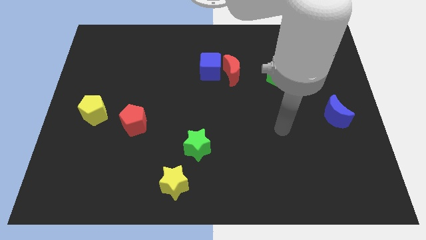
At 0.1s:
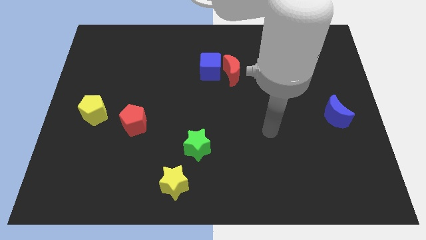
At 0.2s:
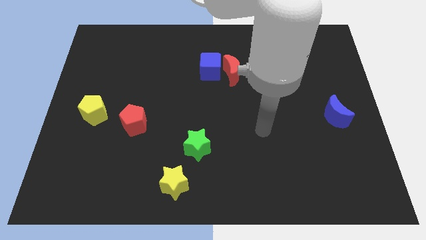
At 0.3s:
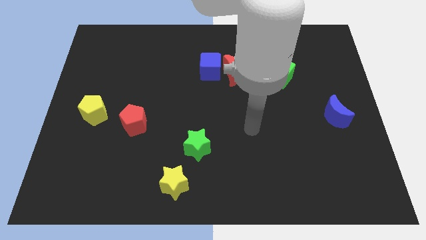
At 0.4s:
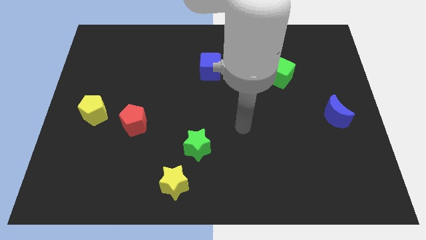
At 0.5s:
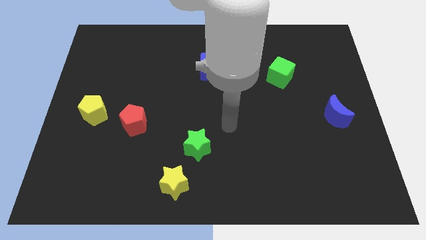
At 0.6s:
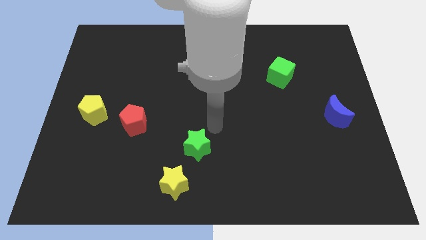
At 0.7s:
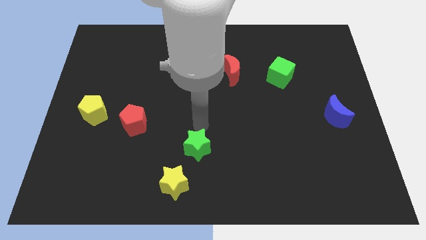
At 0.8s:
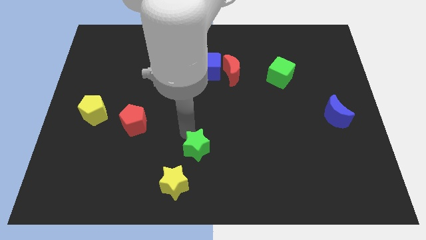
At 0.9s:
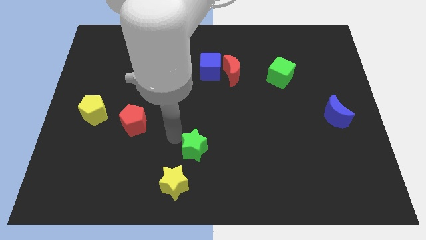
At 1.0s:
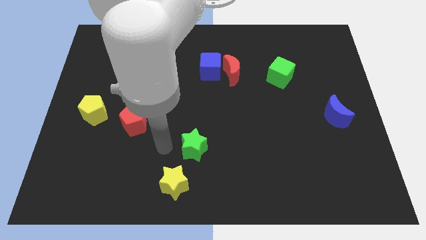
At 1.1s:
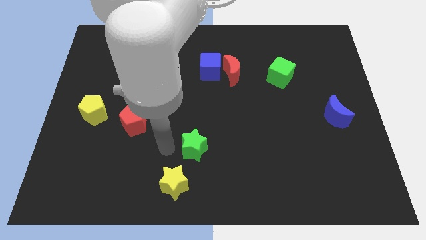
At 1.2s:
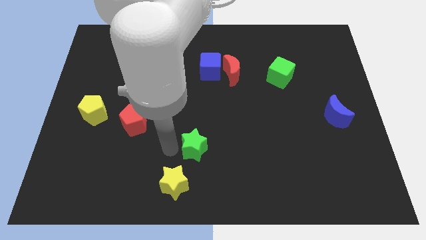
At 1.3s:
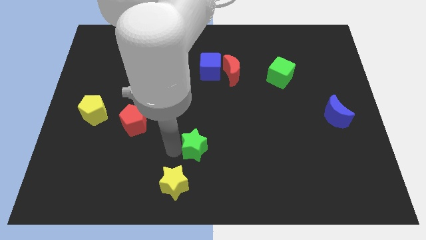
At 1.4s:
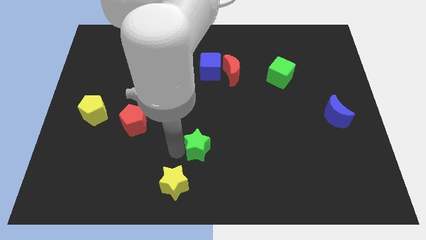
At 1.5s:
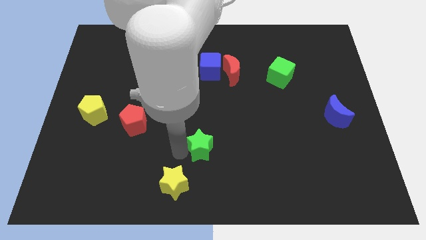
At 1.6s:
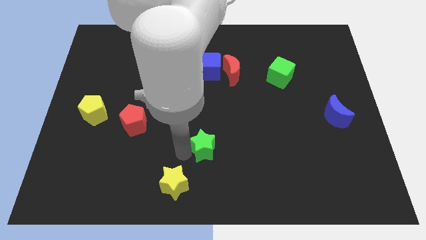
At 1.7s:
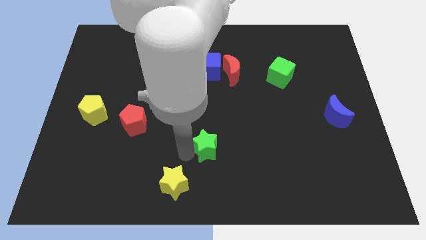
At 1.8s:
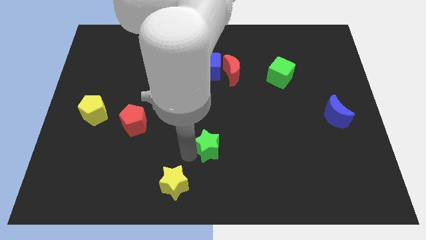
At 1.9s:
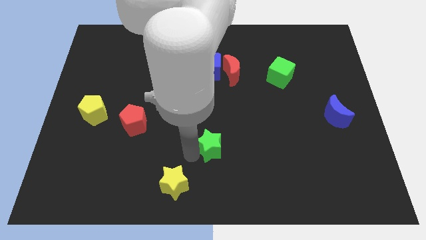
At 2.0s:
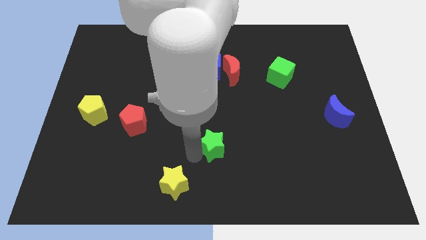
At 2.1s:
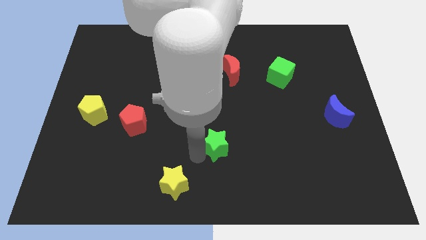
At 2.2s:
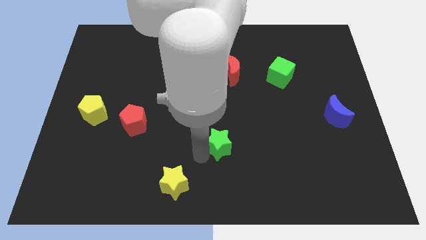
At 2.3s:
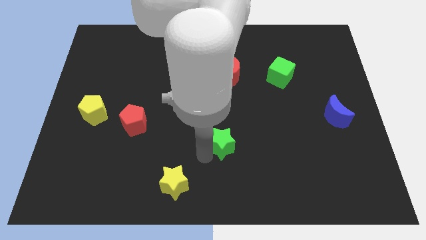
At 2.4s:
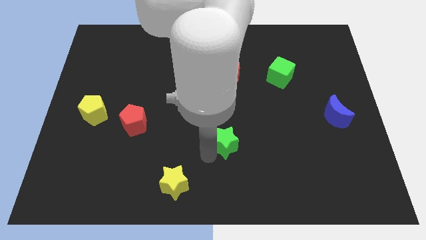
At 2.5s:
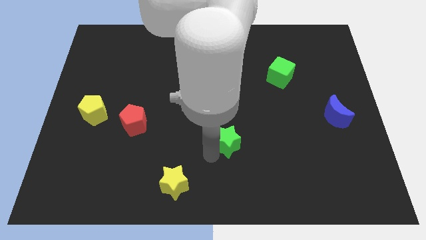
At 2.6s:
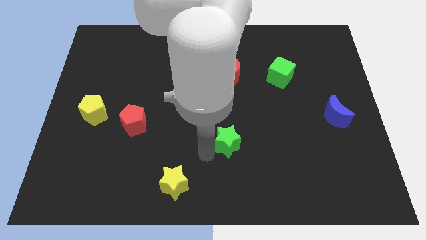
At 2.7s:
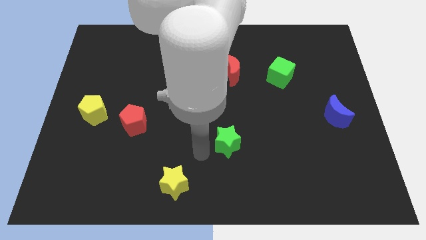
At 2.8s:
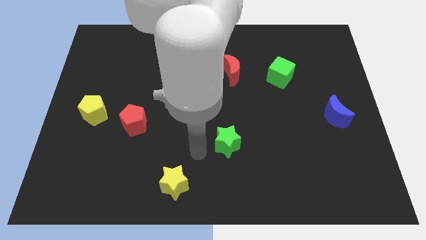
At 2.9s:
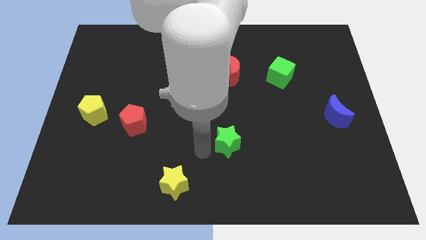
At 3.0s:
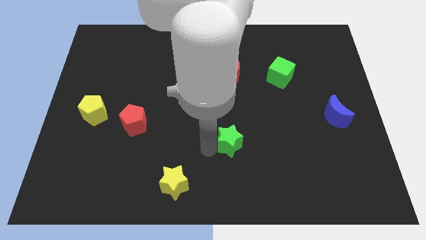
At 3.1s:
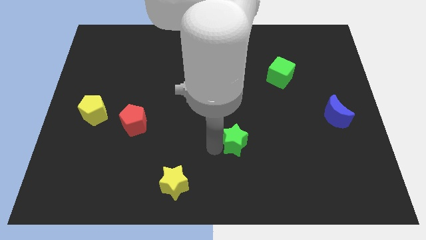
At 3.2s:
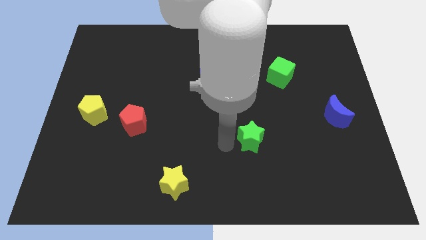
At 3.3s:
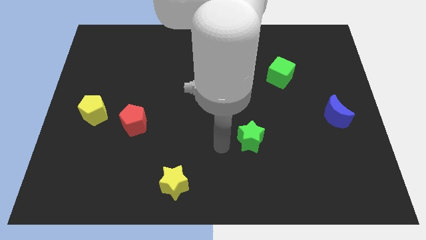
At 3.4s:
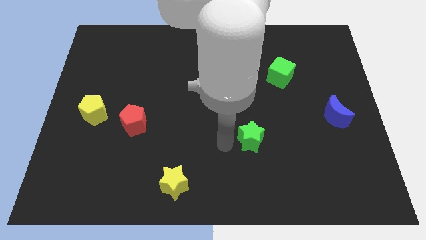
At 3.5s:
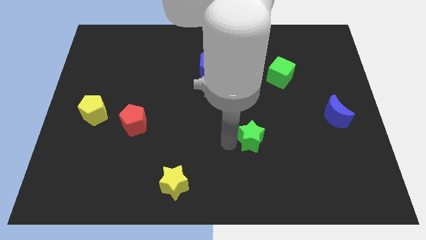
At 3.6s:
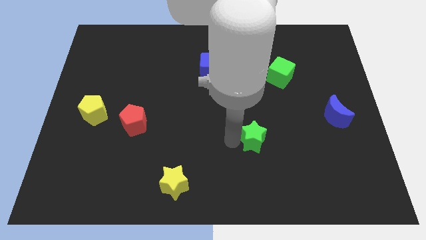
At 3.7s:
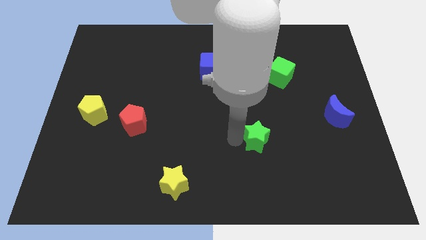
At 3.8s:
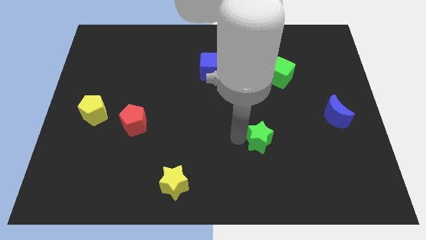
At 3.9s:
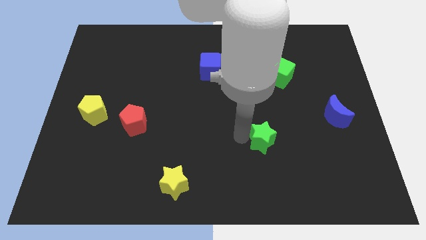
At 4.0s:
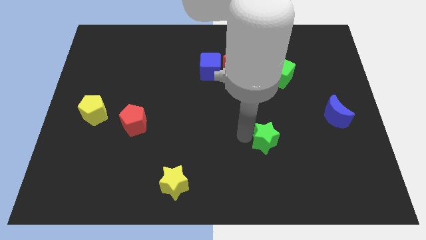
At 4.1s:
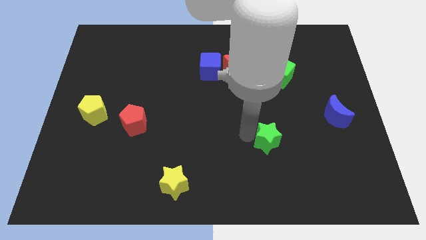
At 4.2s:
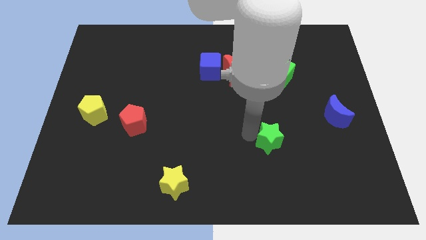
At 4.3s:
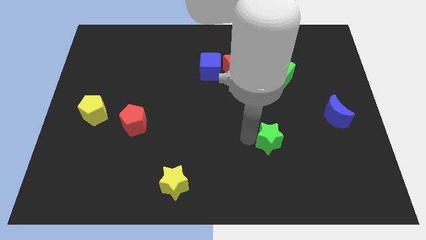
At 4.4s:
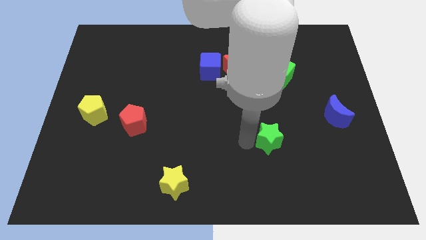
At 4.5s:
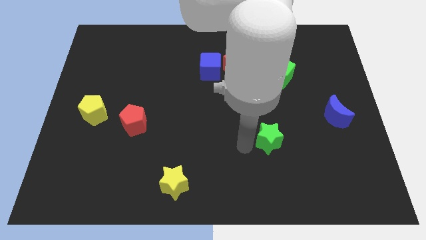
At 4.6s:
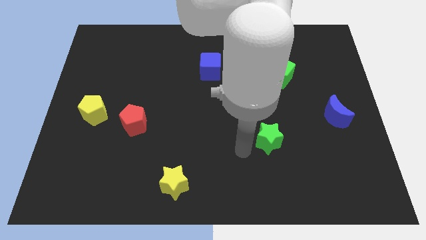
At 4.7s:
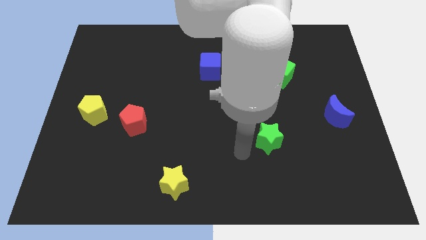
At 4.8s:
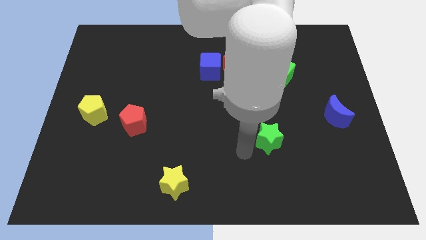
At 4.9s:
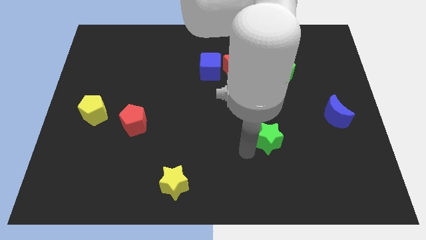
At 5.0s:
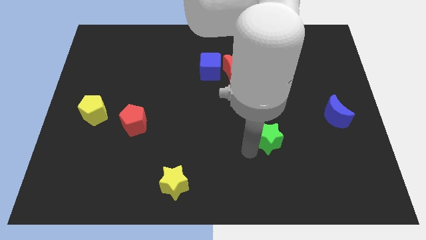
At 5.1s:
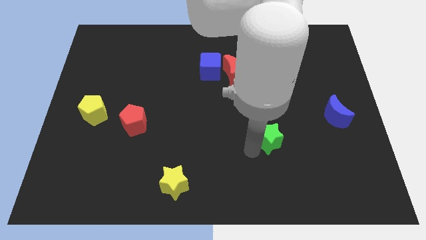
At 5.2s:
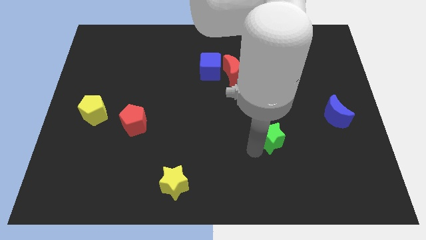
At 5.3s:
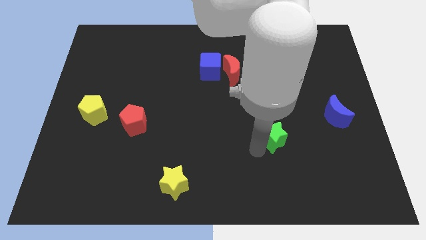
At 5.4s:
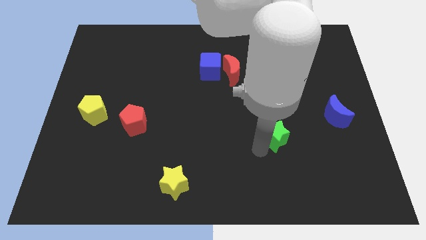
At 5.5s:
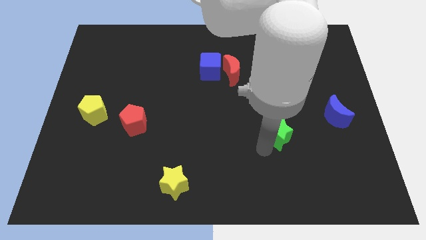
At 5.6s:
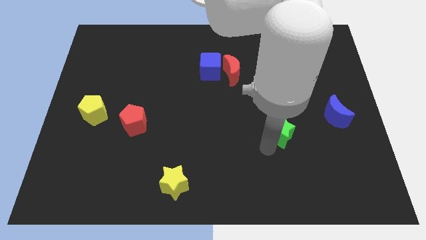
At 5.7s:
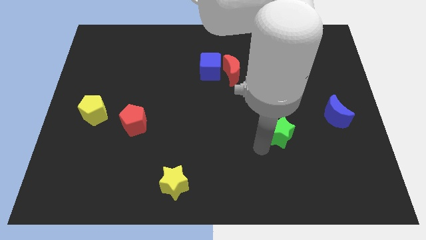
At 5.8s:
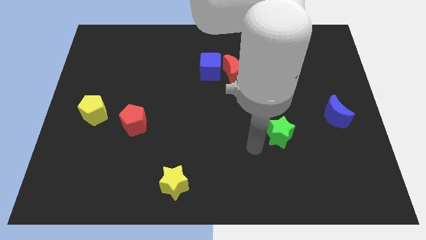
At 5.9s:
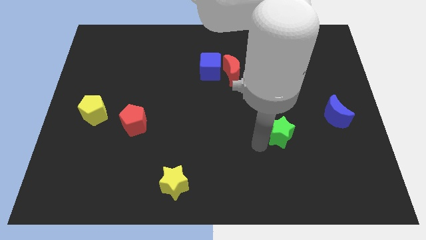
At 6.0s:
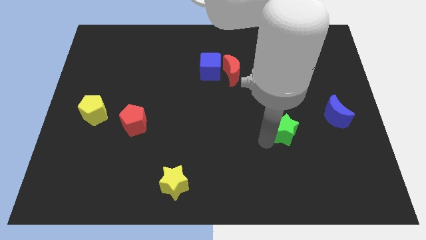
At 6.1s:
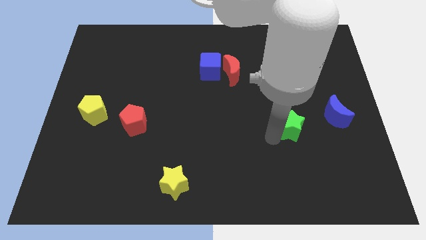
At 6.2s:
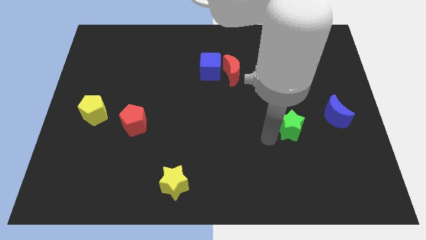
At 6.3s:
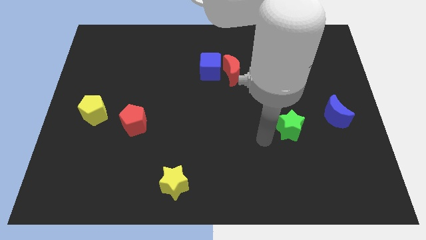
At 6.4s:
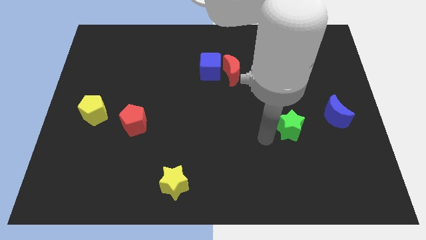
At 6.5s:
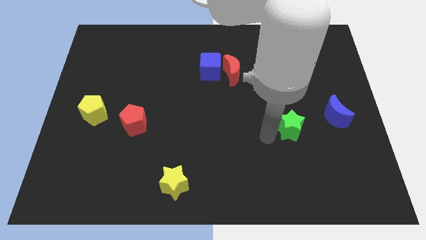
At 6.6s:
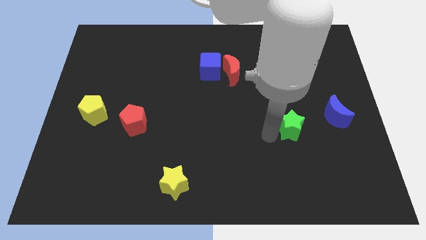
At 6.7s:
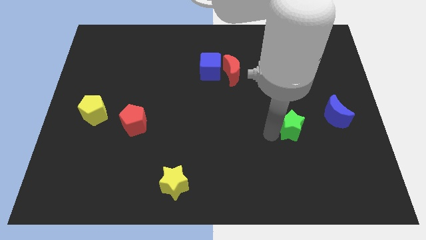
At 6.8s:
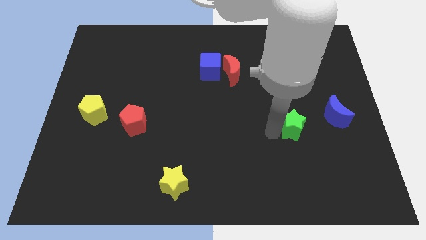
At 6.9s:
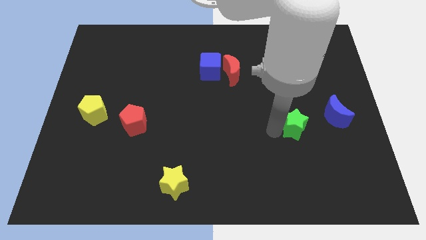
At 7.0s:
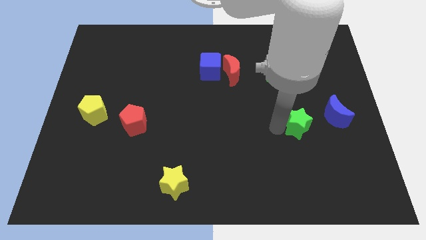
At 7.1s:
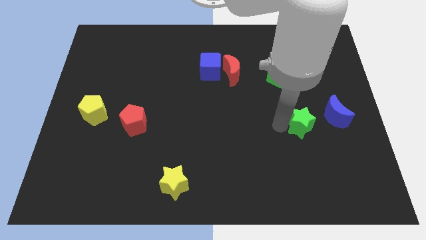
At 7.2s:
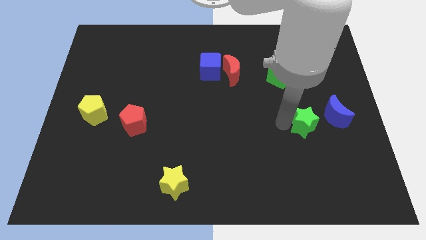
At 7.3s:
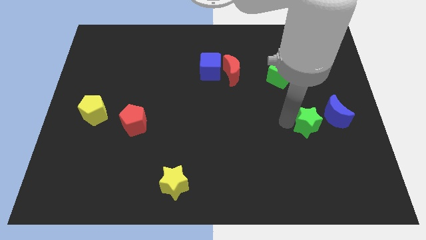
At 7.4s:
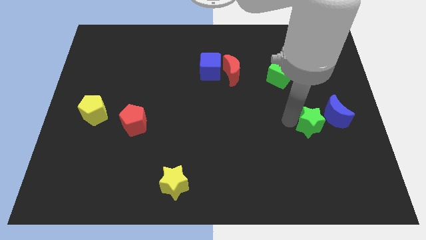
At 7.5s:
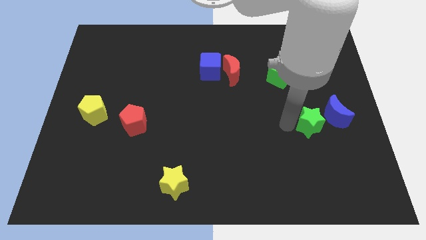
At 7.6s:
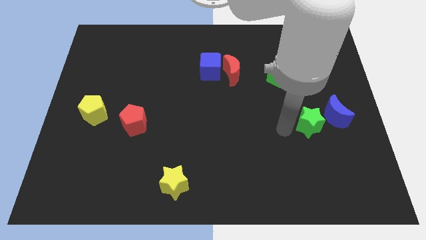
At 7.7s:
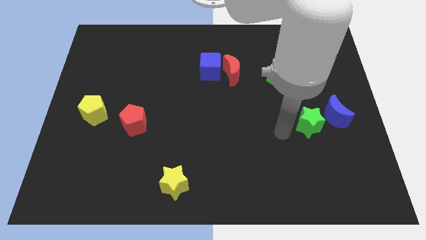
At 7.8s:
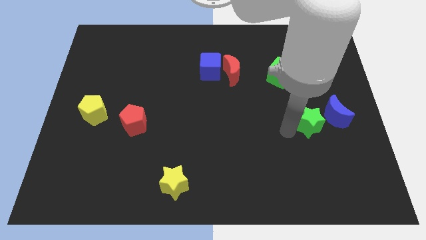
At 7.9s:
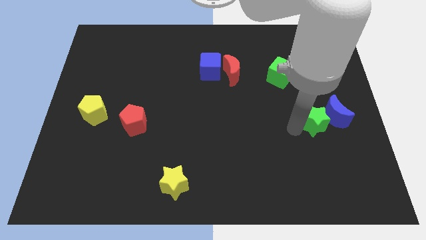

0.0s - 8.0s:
slide the green star close to the blue moon
